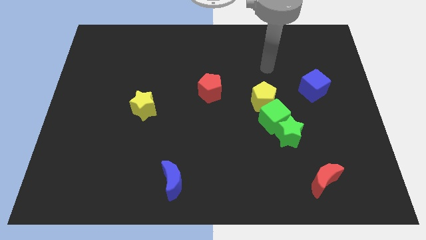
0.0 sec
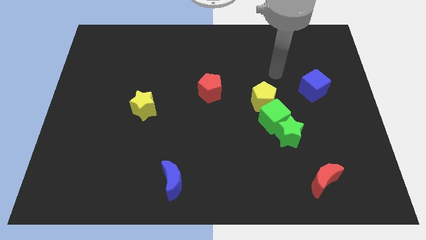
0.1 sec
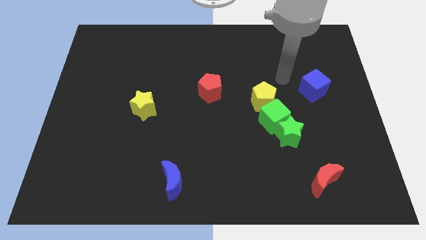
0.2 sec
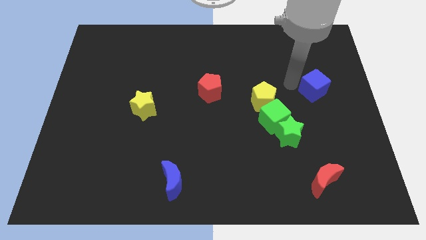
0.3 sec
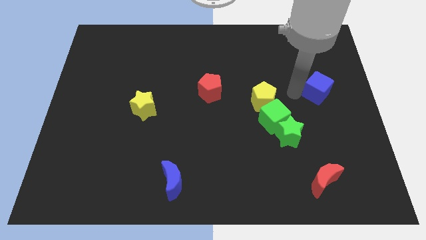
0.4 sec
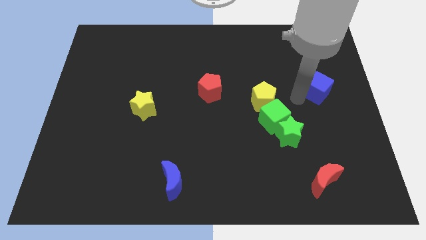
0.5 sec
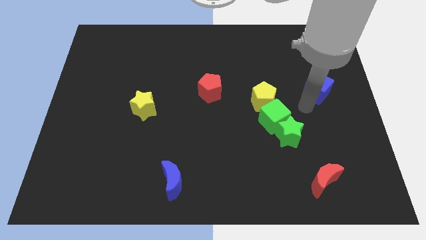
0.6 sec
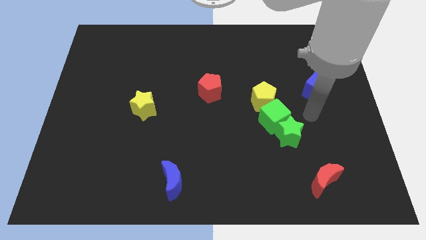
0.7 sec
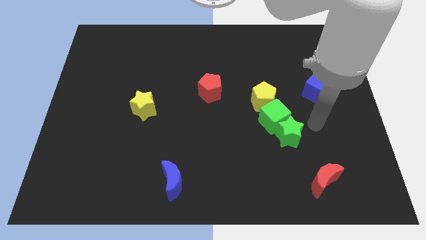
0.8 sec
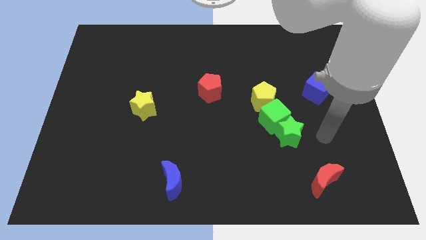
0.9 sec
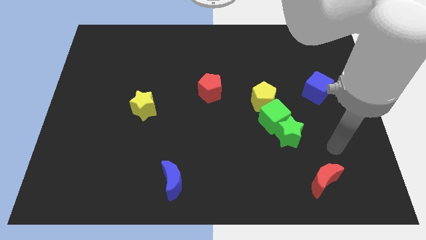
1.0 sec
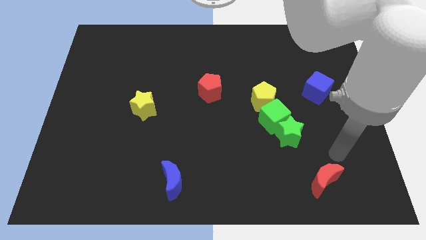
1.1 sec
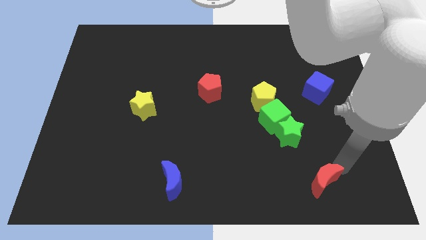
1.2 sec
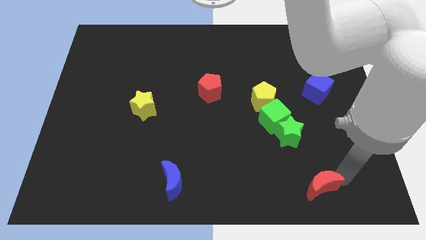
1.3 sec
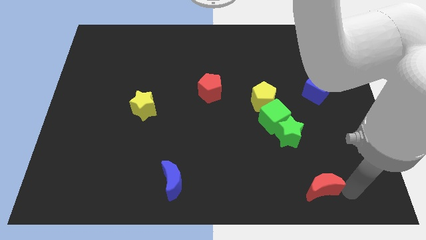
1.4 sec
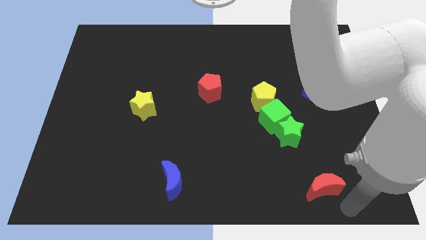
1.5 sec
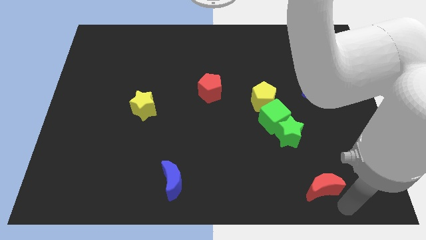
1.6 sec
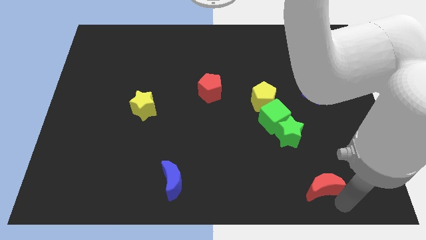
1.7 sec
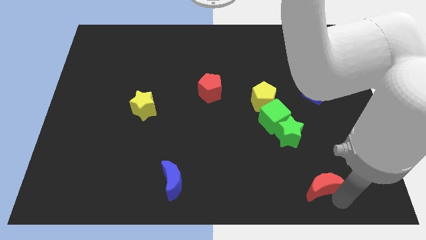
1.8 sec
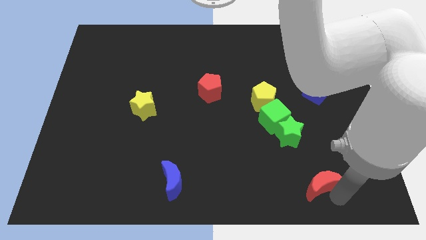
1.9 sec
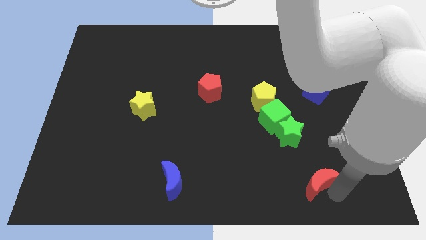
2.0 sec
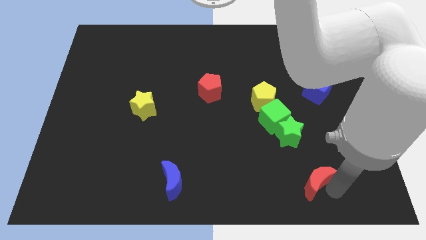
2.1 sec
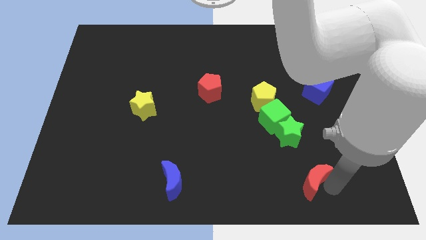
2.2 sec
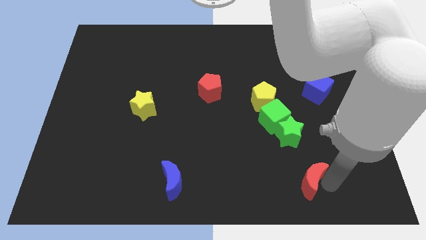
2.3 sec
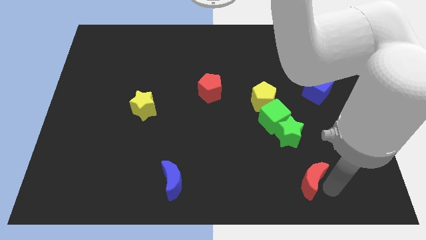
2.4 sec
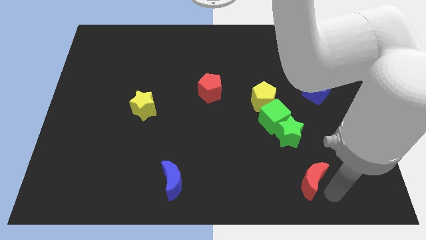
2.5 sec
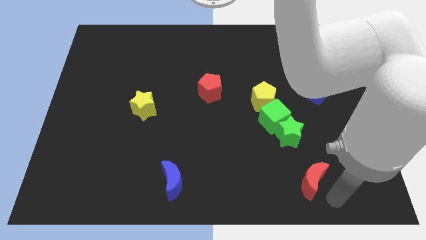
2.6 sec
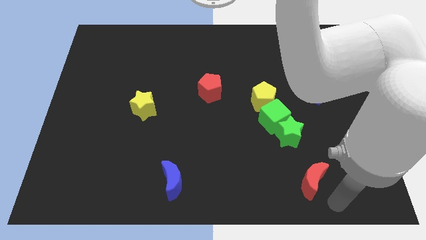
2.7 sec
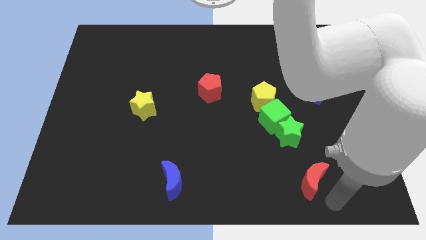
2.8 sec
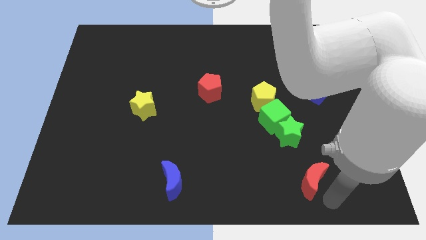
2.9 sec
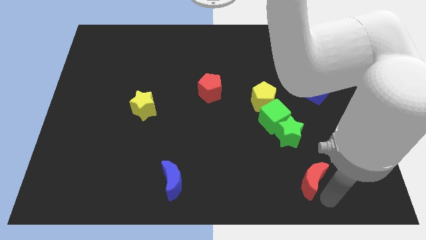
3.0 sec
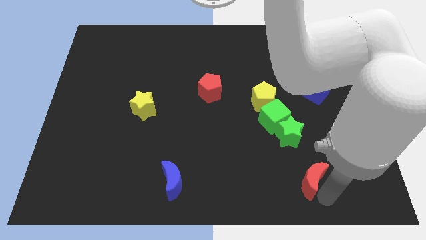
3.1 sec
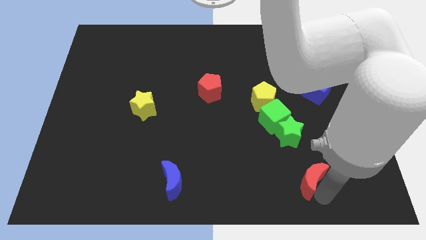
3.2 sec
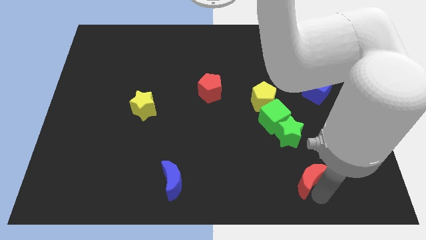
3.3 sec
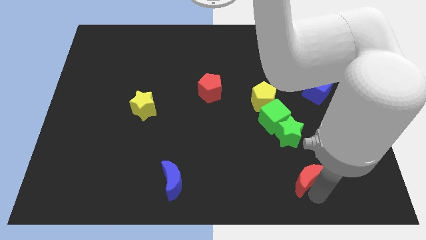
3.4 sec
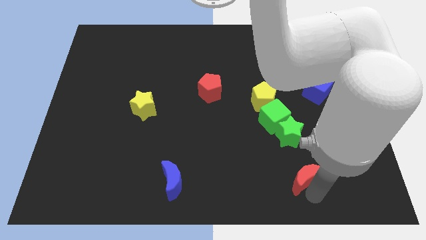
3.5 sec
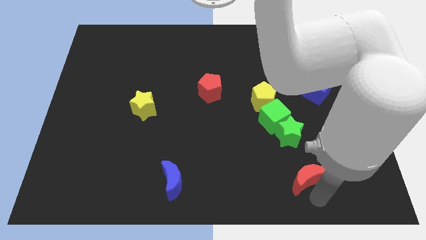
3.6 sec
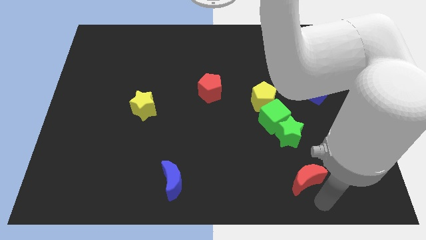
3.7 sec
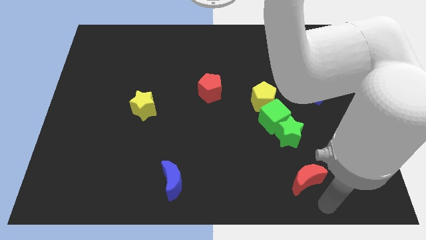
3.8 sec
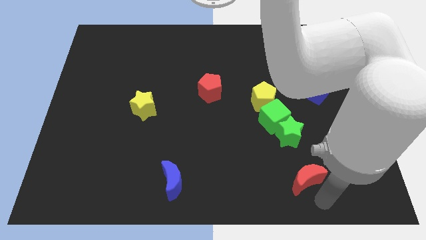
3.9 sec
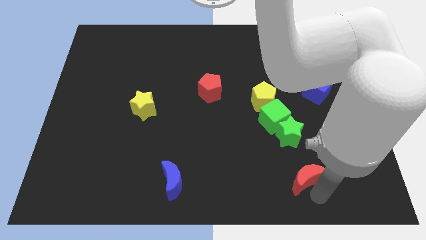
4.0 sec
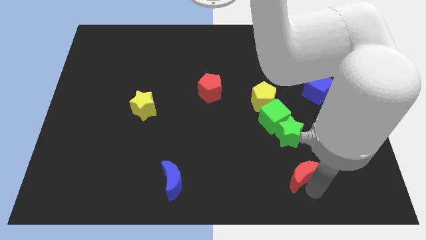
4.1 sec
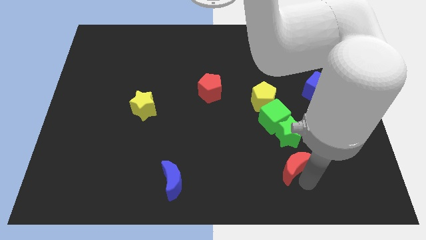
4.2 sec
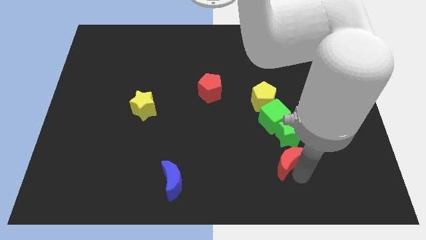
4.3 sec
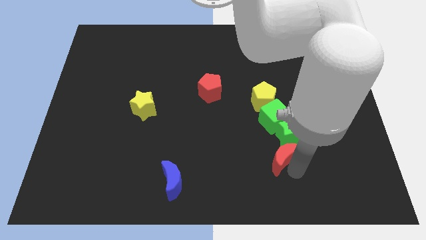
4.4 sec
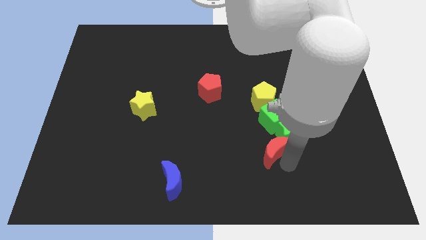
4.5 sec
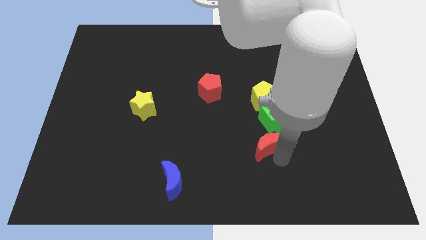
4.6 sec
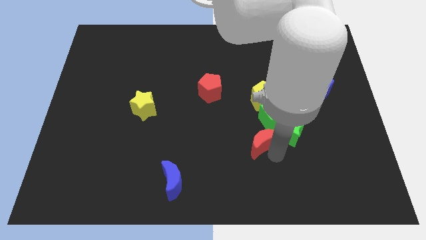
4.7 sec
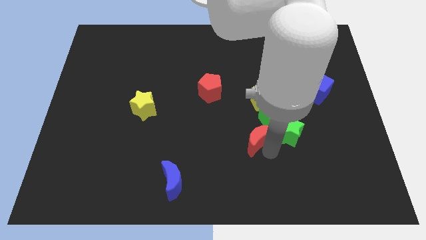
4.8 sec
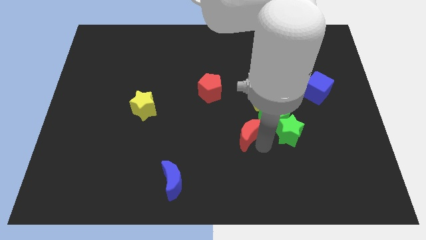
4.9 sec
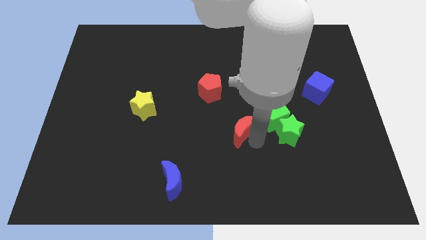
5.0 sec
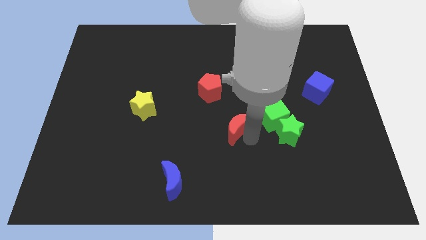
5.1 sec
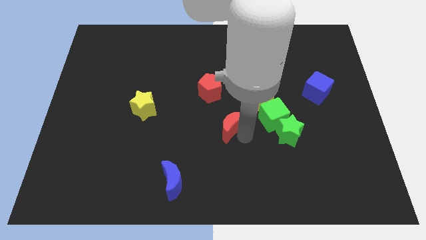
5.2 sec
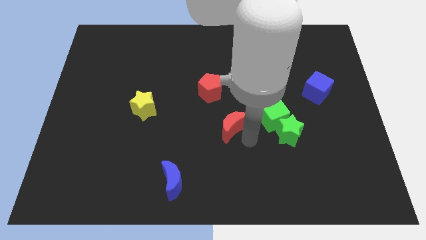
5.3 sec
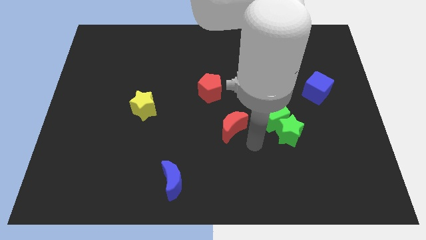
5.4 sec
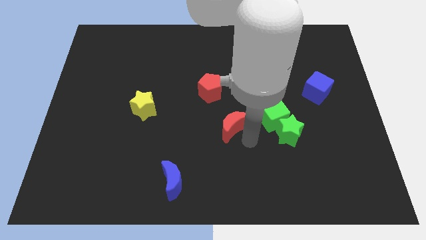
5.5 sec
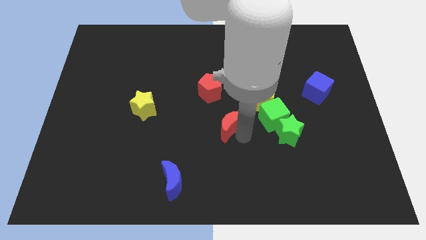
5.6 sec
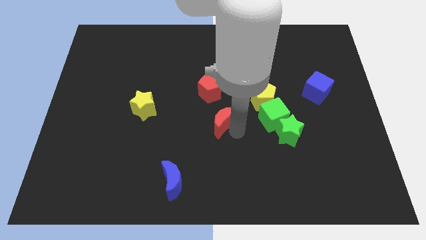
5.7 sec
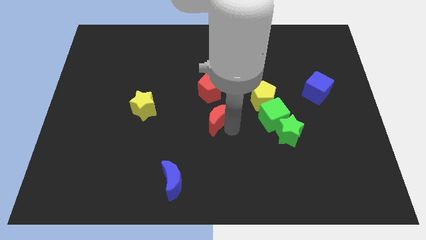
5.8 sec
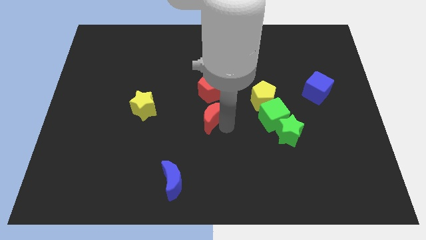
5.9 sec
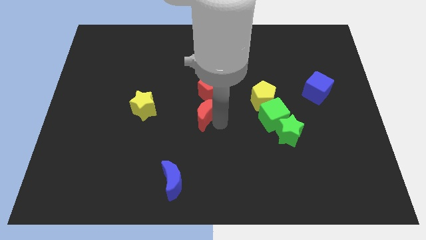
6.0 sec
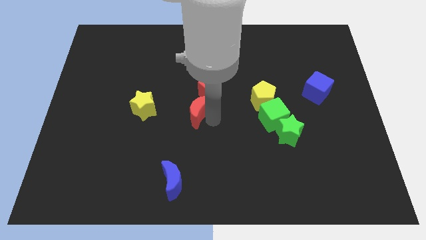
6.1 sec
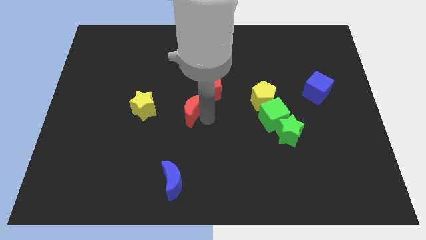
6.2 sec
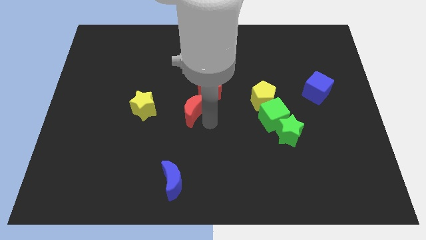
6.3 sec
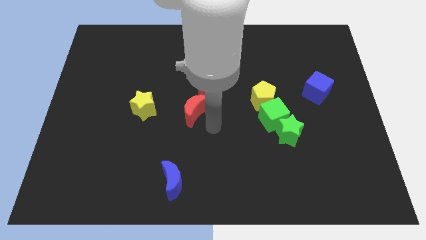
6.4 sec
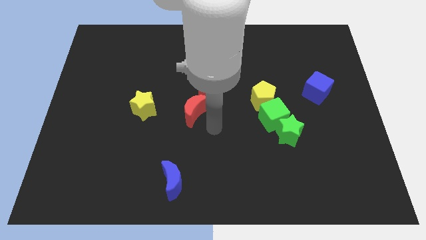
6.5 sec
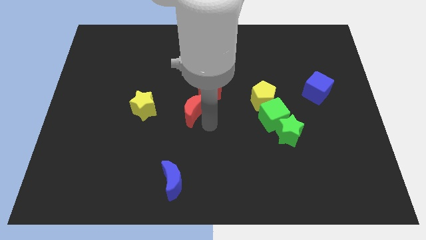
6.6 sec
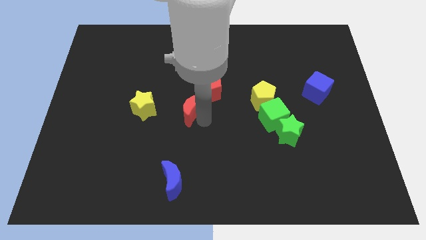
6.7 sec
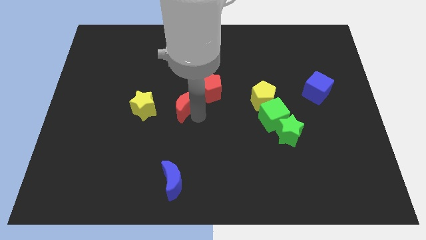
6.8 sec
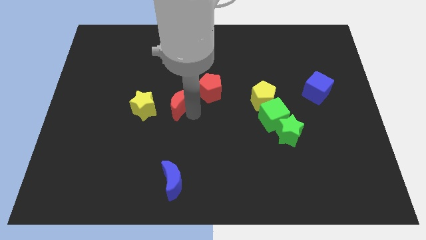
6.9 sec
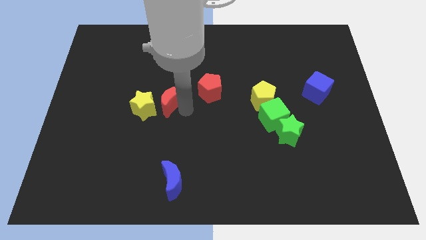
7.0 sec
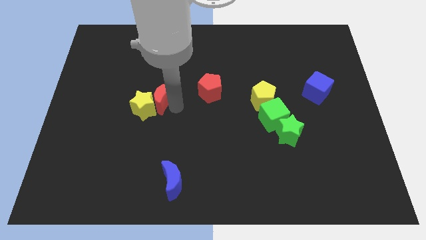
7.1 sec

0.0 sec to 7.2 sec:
put the red moon above the yellow star
